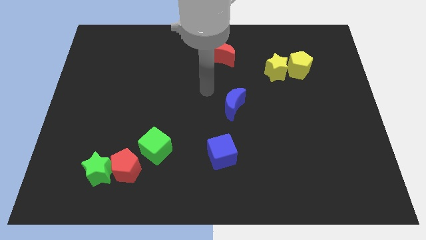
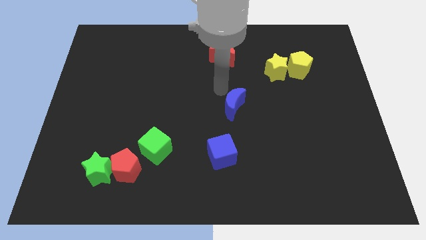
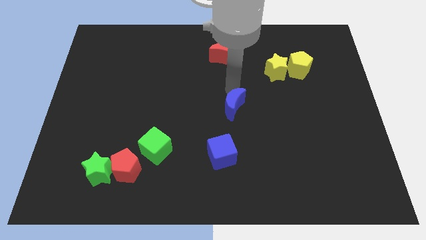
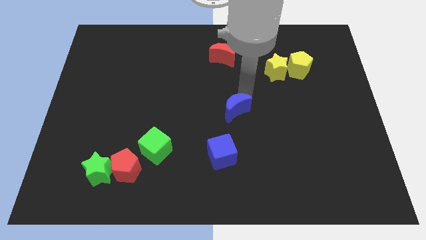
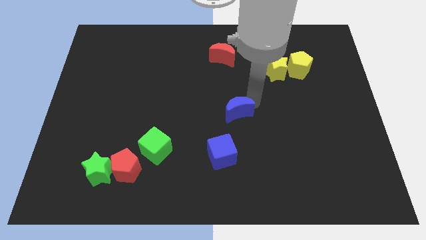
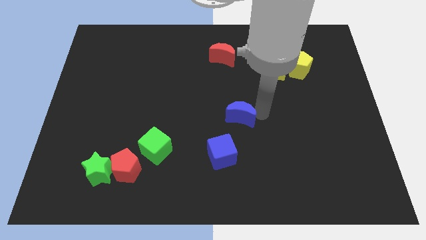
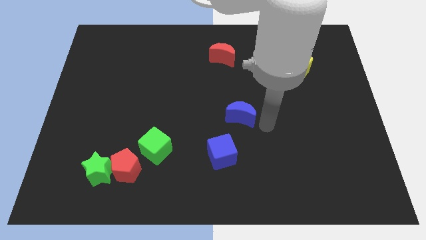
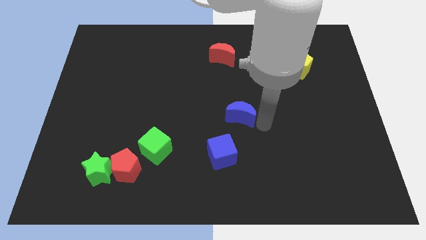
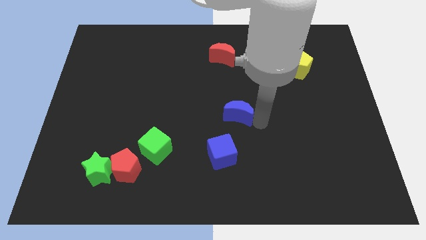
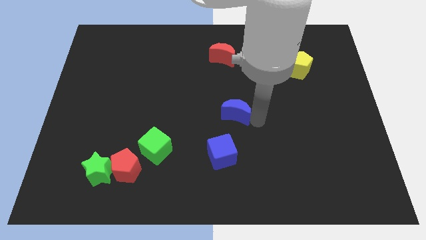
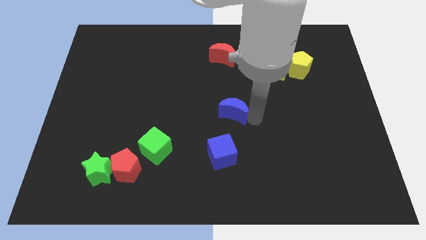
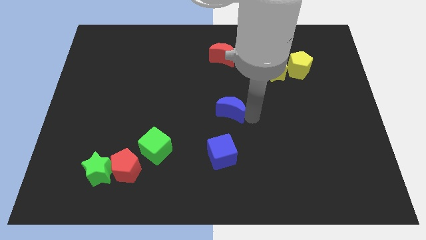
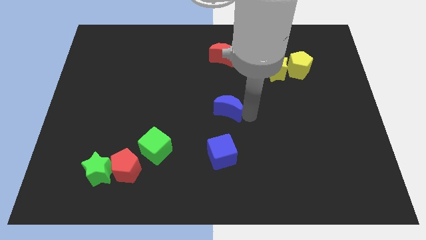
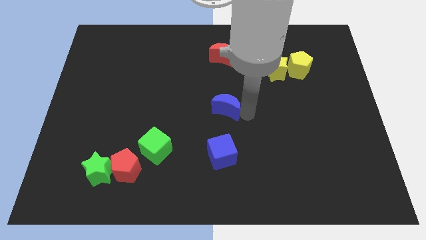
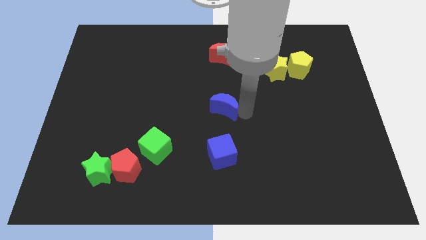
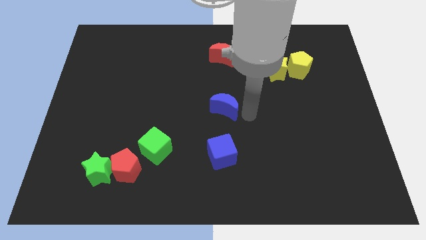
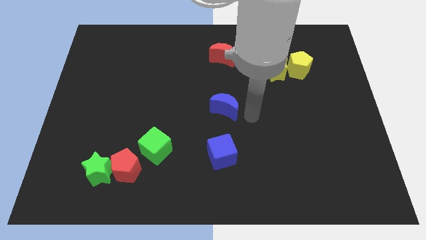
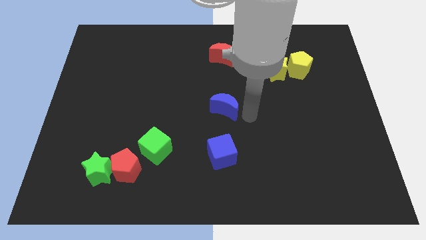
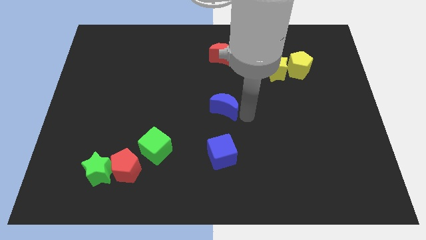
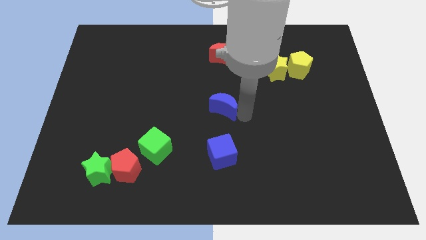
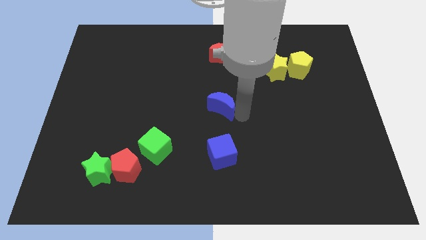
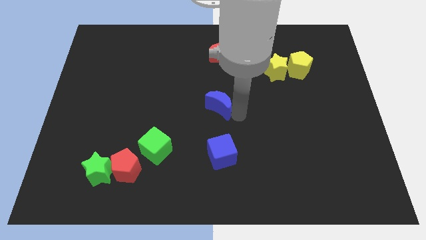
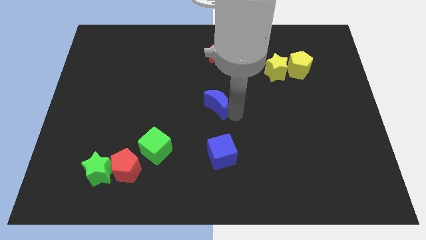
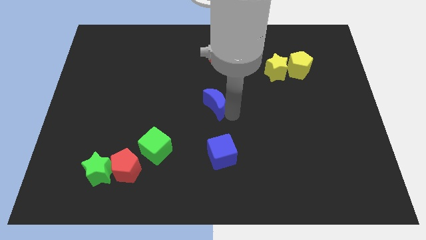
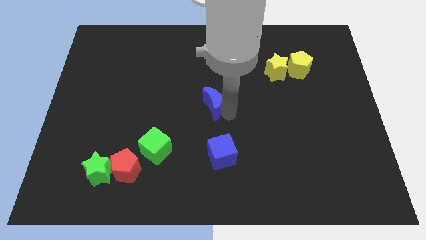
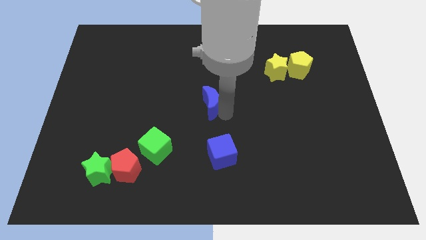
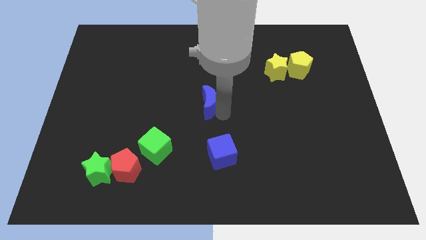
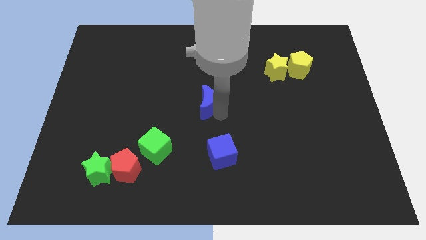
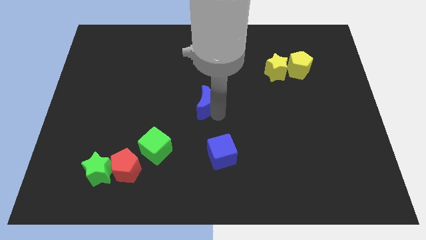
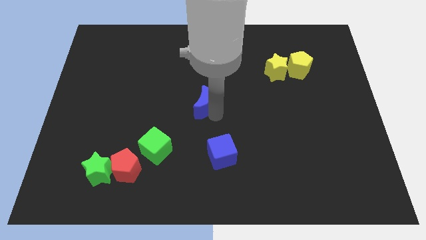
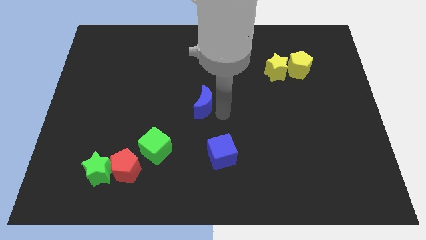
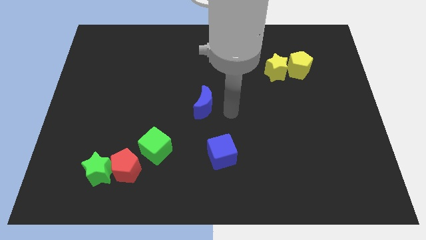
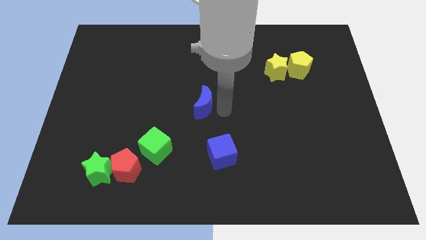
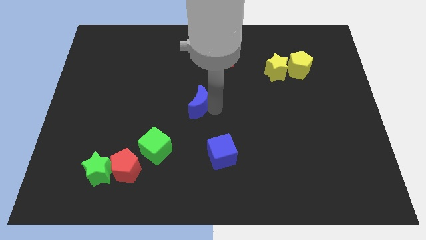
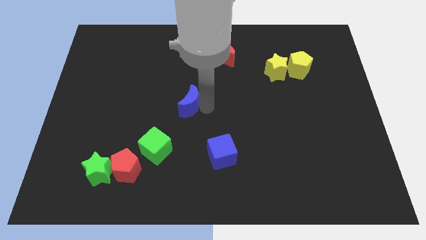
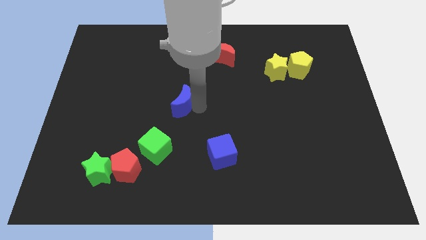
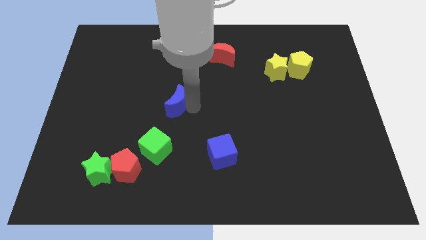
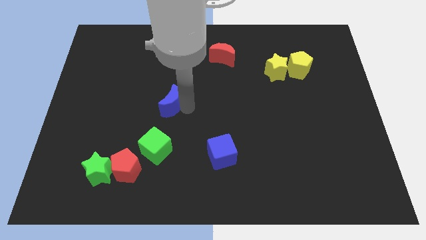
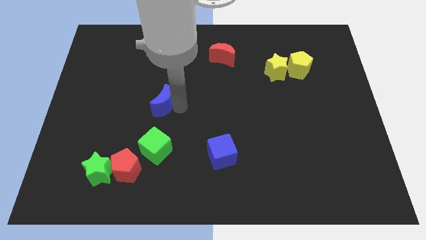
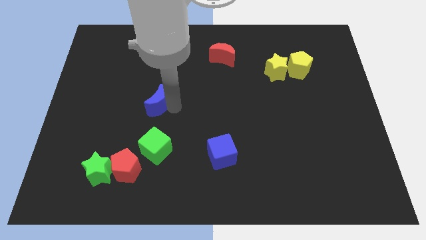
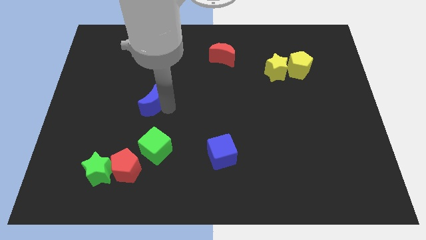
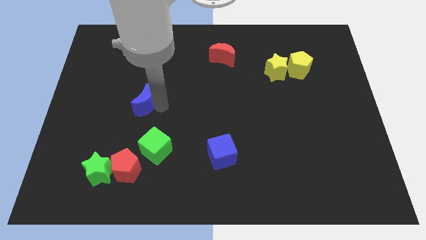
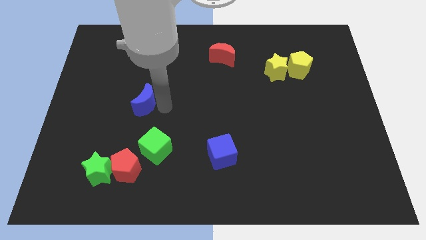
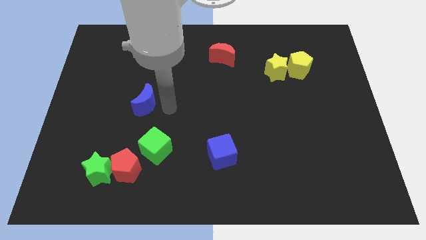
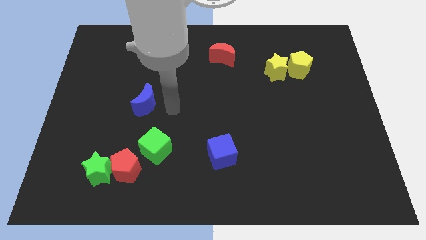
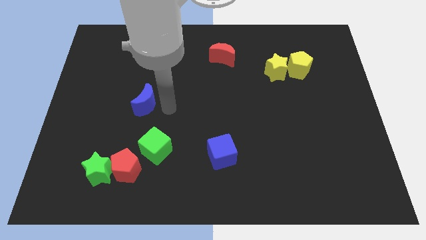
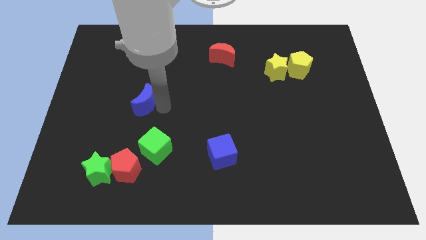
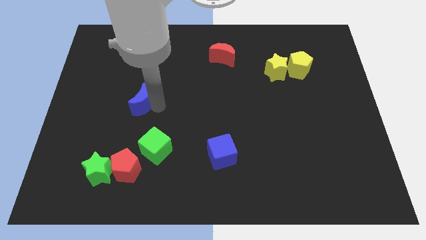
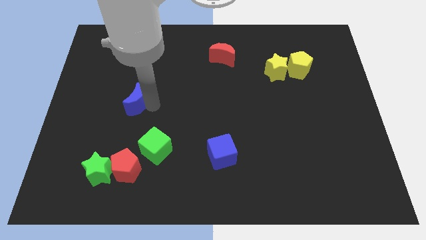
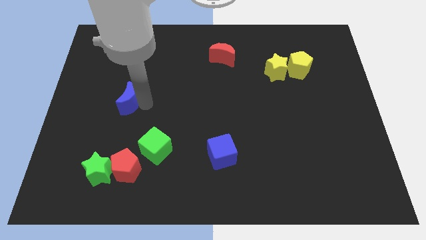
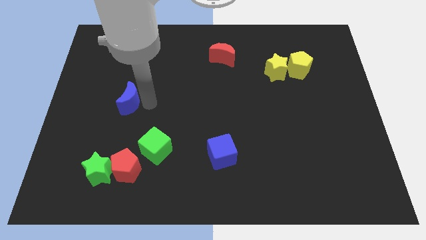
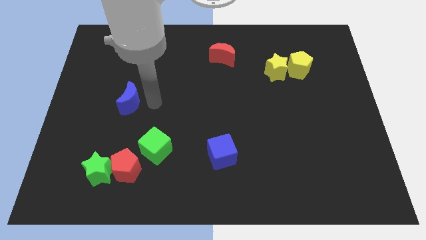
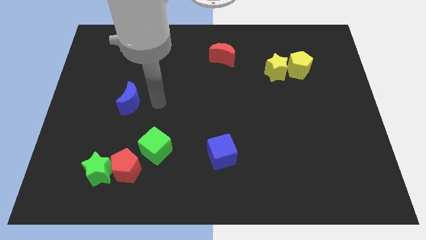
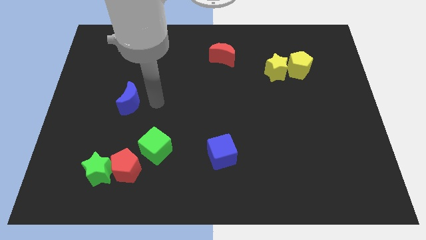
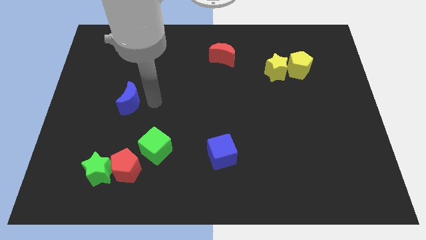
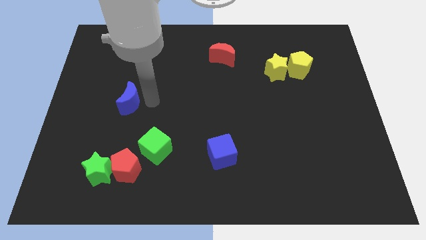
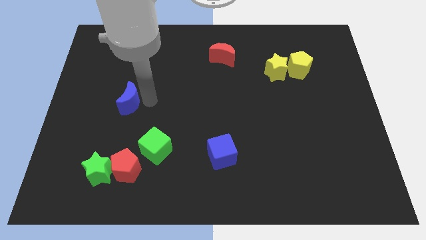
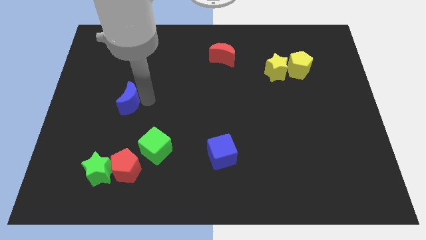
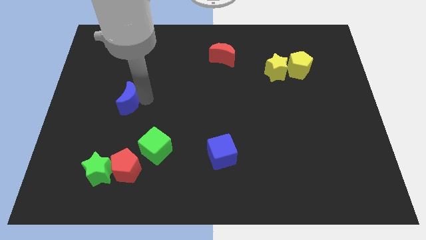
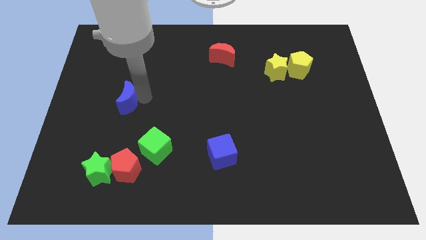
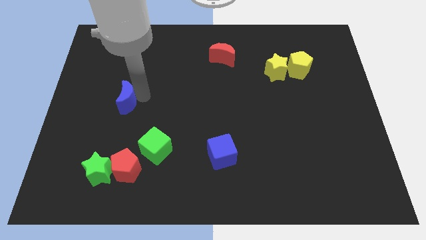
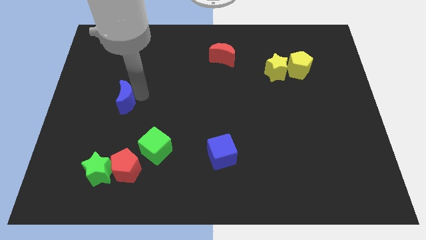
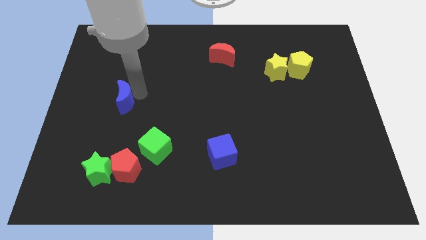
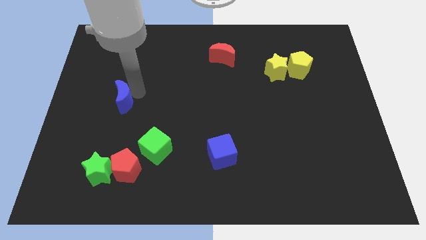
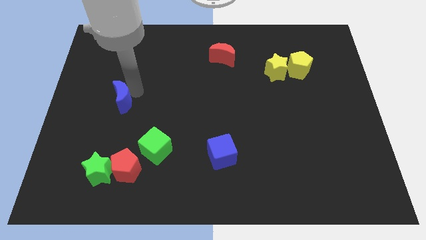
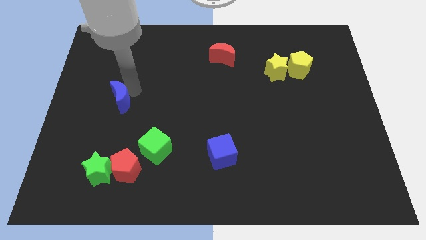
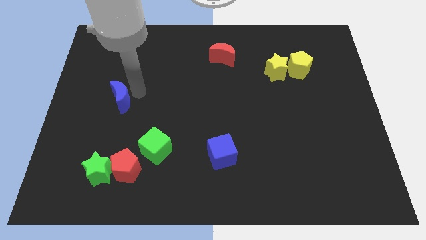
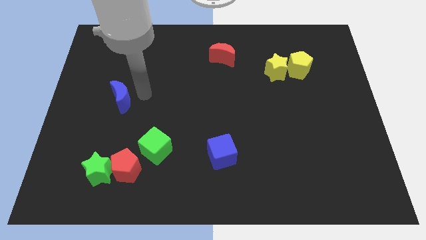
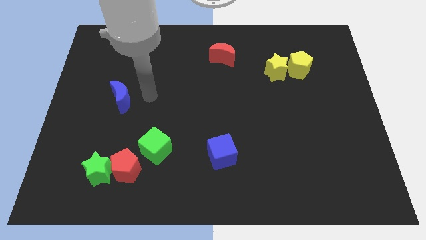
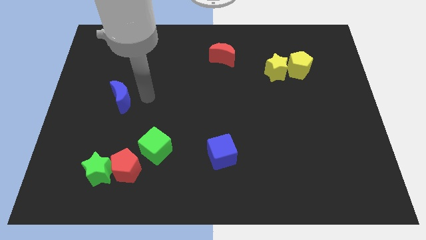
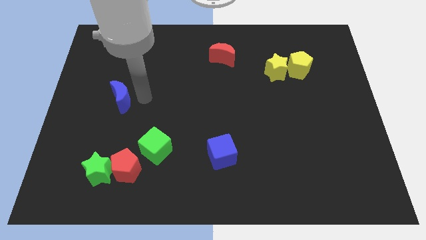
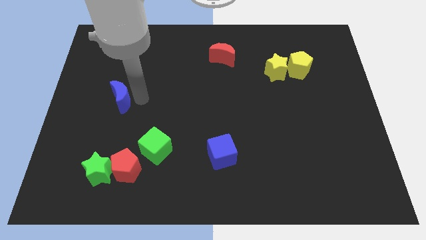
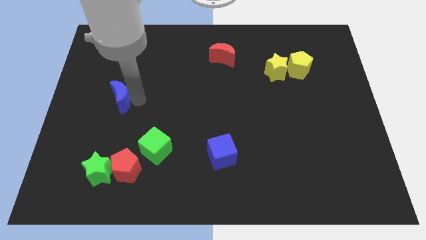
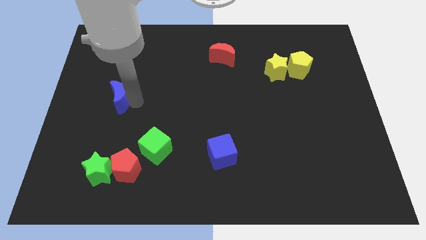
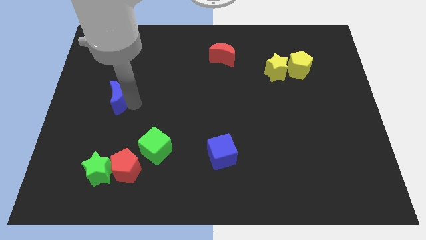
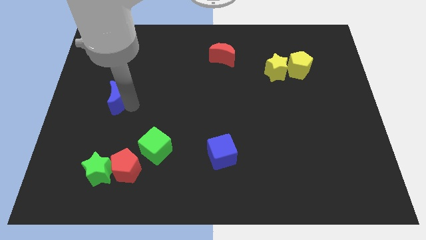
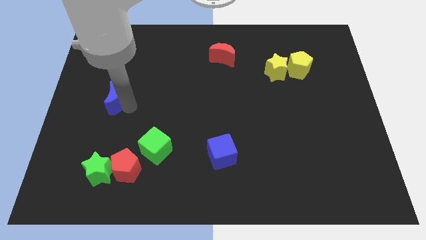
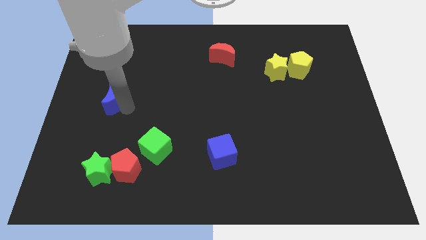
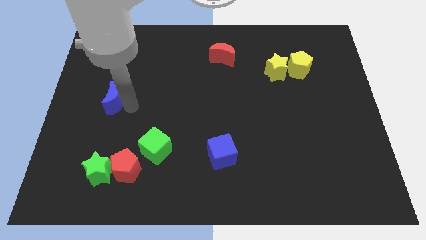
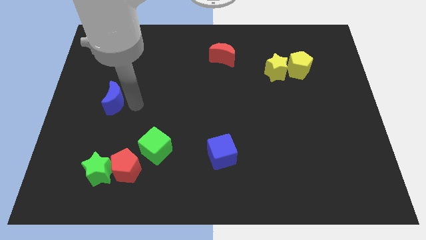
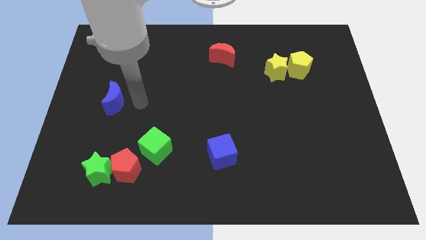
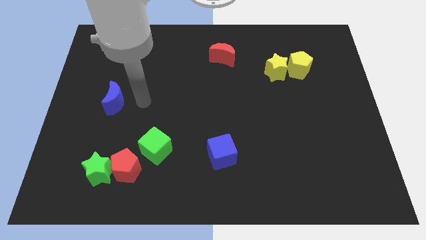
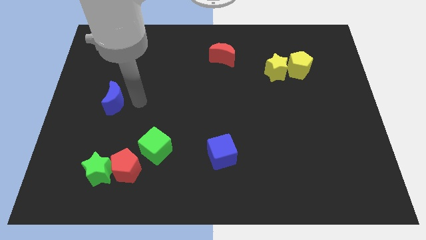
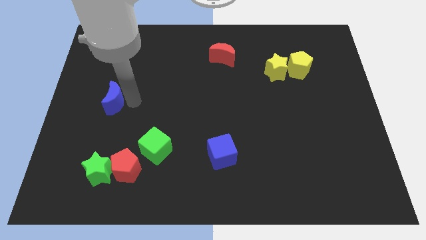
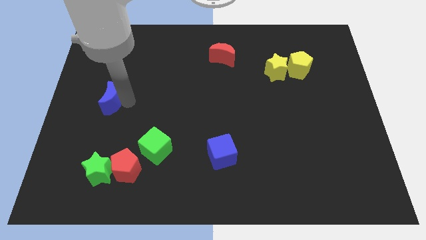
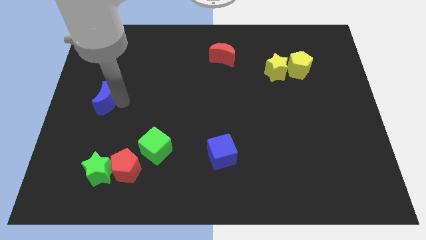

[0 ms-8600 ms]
put the blue moon to the left side of the board
